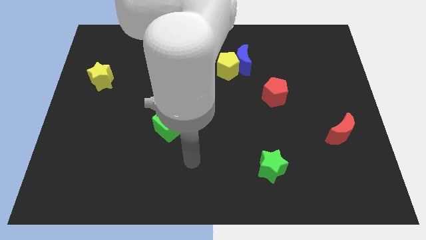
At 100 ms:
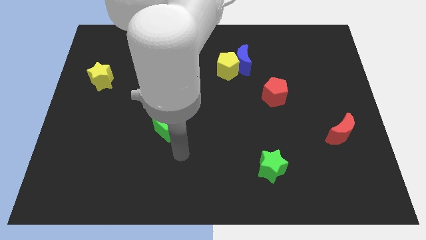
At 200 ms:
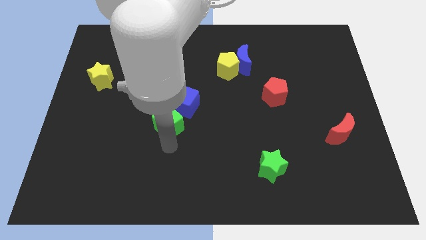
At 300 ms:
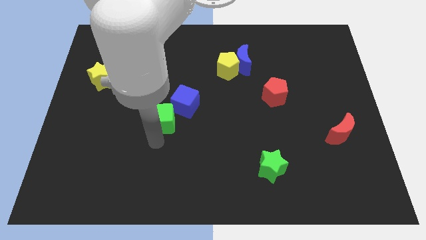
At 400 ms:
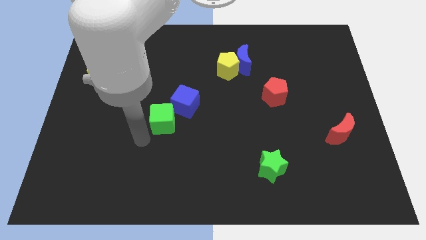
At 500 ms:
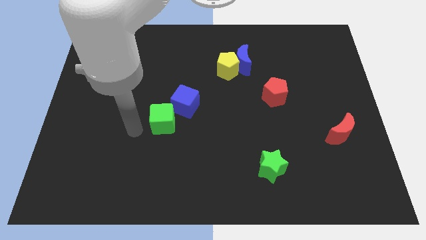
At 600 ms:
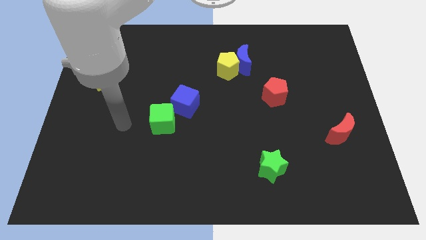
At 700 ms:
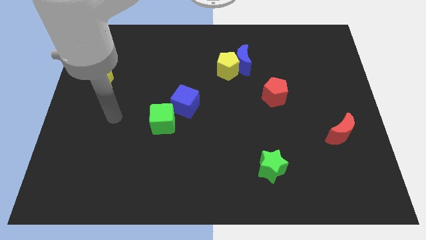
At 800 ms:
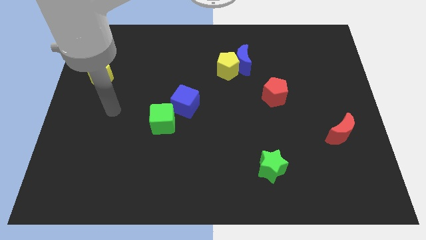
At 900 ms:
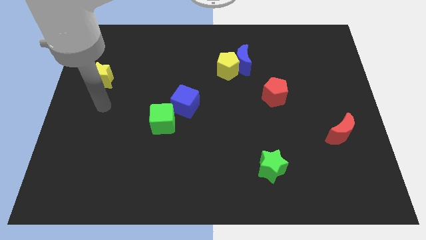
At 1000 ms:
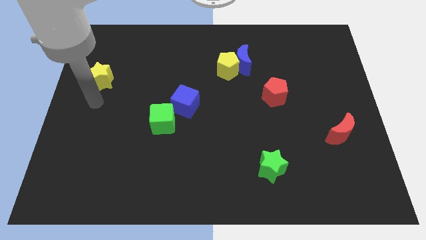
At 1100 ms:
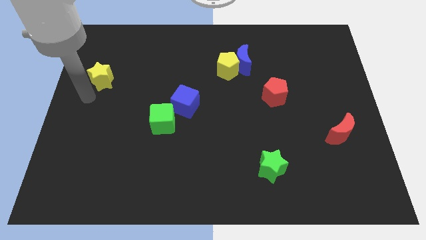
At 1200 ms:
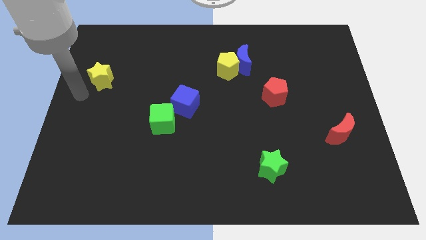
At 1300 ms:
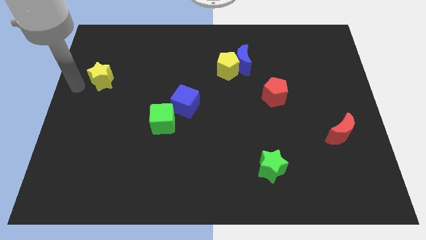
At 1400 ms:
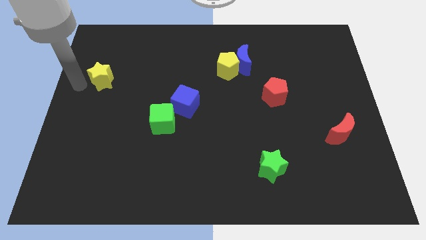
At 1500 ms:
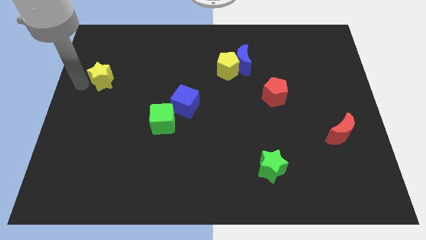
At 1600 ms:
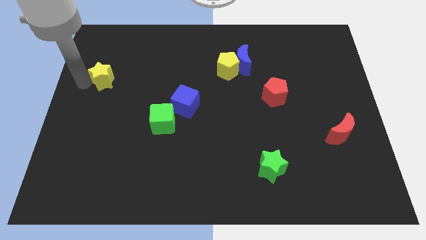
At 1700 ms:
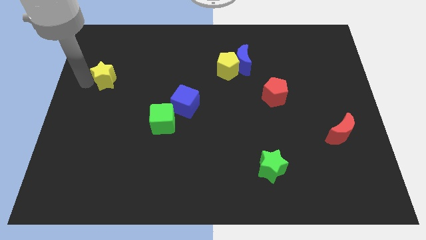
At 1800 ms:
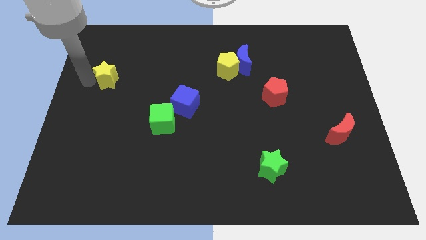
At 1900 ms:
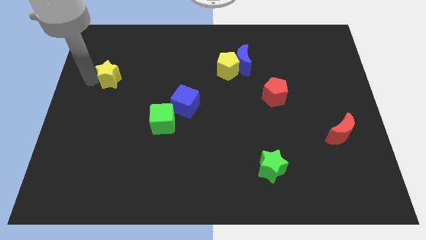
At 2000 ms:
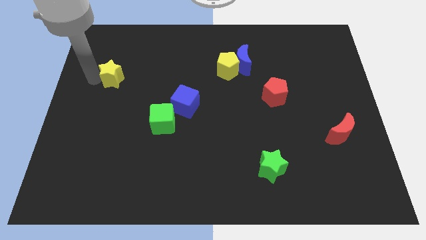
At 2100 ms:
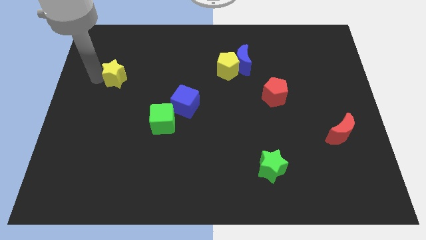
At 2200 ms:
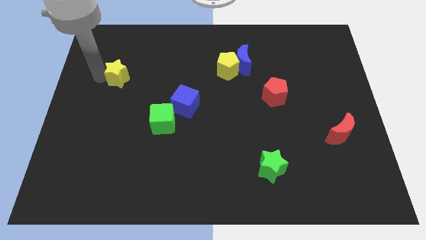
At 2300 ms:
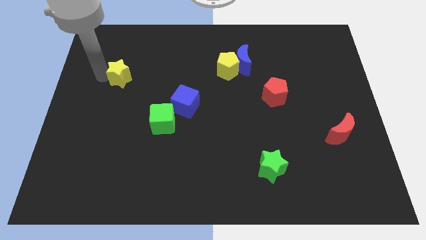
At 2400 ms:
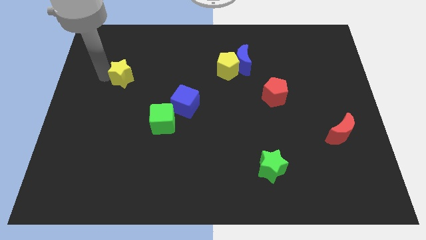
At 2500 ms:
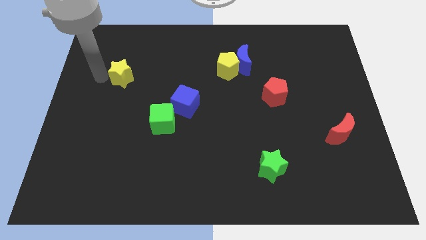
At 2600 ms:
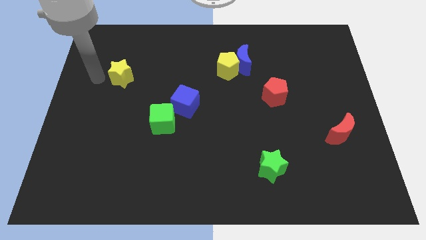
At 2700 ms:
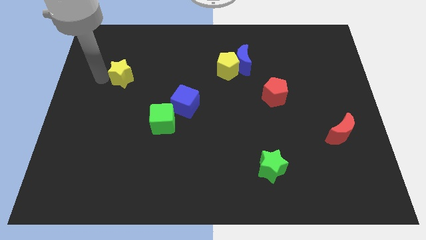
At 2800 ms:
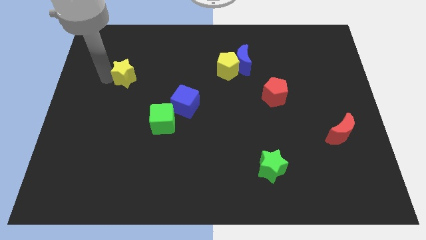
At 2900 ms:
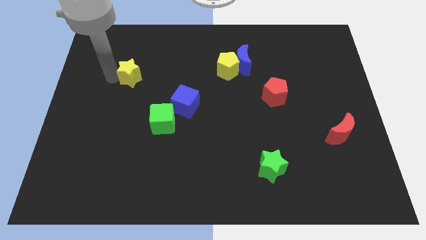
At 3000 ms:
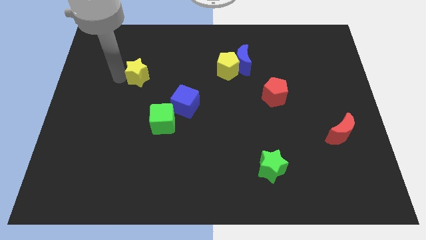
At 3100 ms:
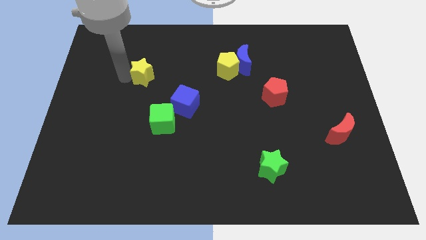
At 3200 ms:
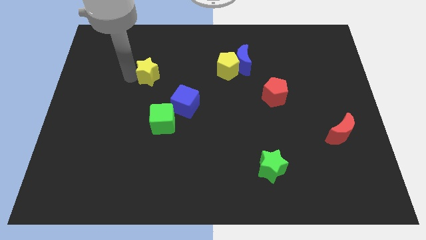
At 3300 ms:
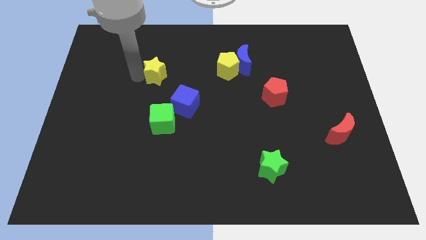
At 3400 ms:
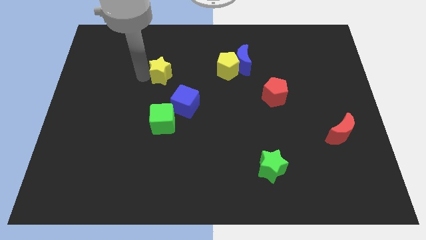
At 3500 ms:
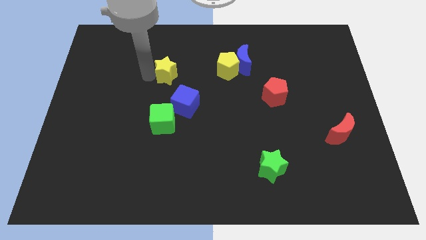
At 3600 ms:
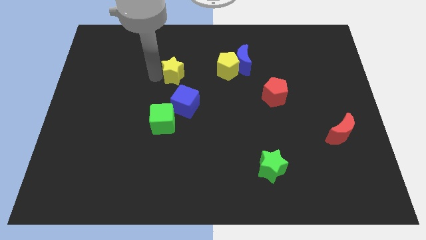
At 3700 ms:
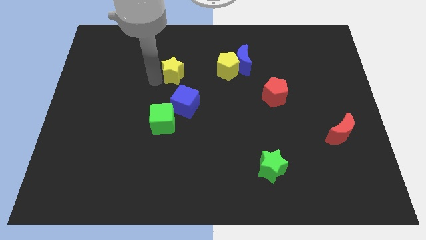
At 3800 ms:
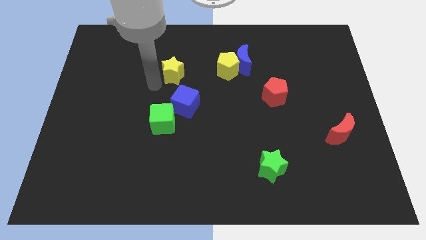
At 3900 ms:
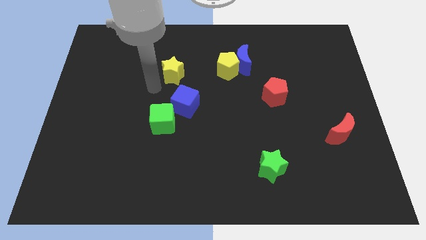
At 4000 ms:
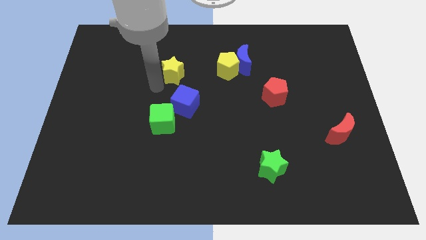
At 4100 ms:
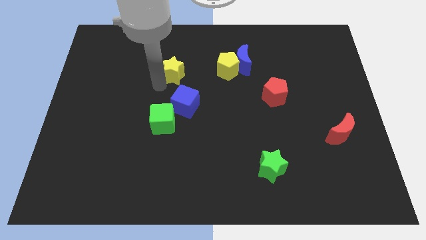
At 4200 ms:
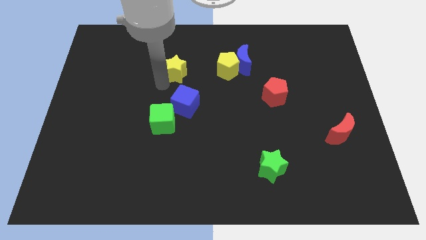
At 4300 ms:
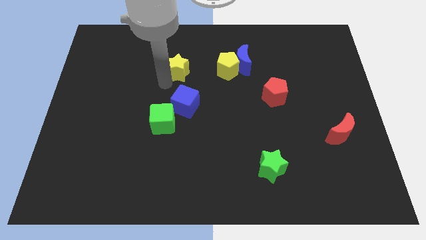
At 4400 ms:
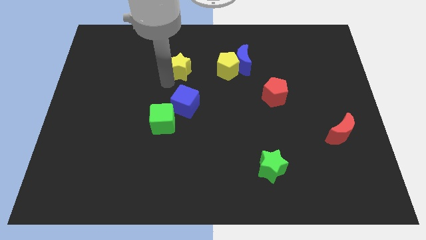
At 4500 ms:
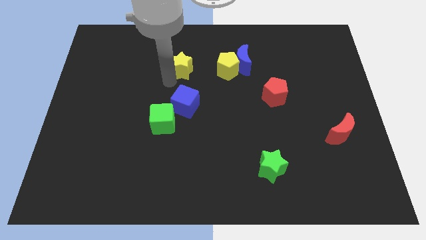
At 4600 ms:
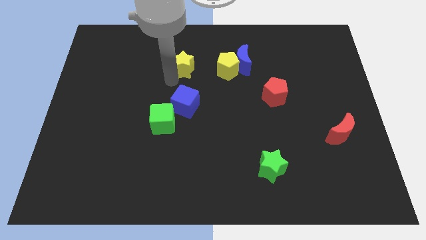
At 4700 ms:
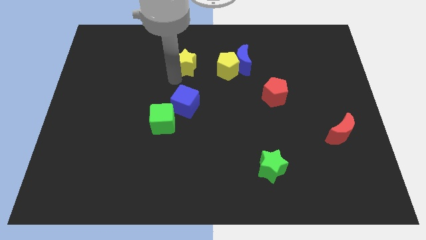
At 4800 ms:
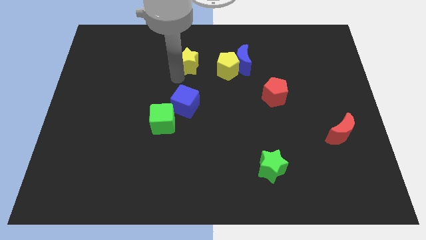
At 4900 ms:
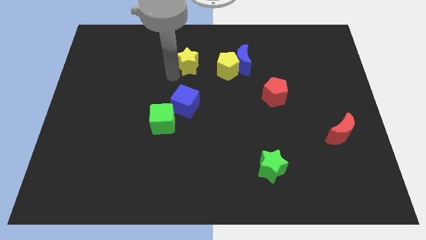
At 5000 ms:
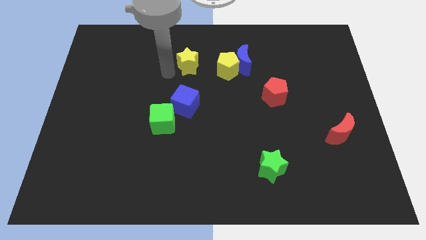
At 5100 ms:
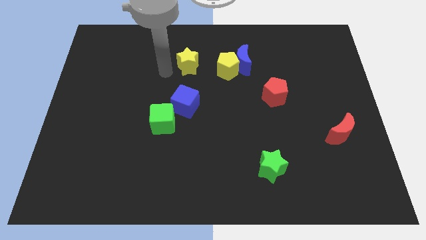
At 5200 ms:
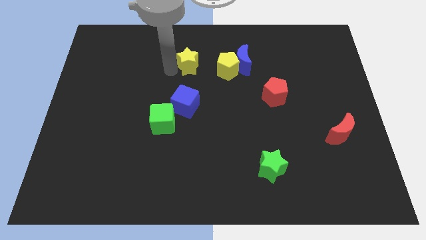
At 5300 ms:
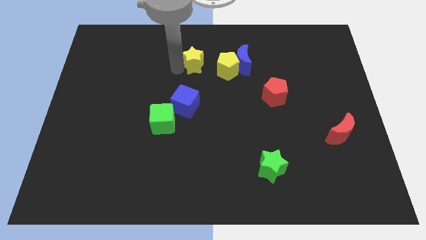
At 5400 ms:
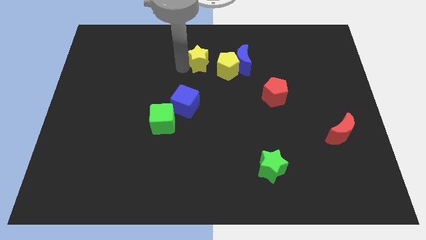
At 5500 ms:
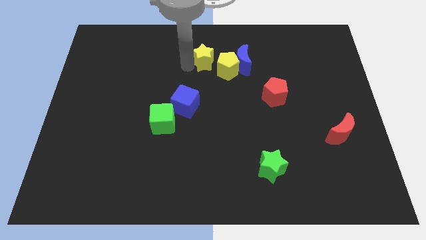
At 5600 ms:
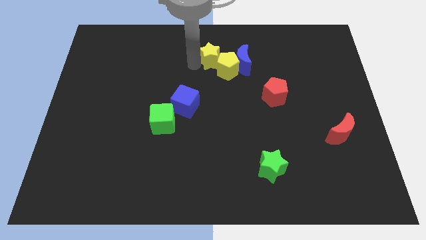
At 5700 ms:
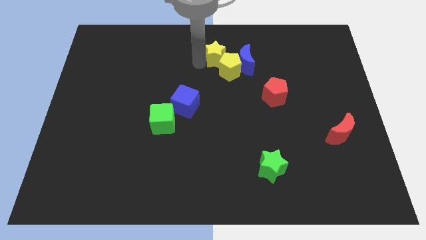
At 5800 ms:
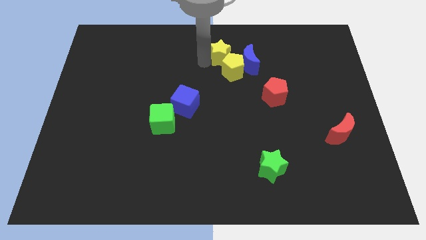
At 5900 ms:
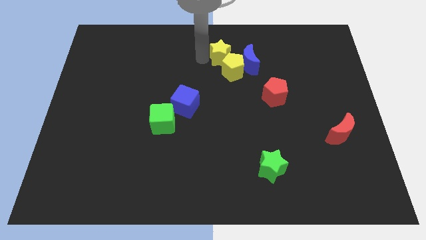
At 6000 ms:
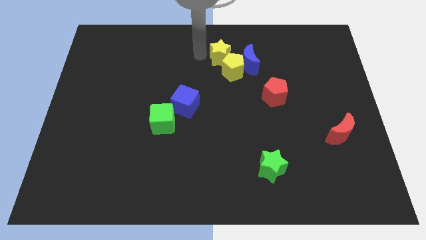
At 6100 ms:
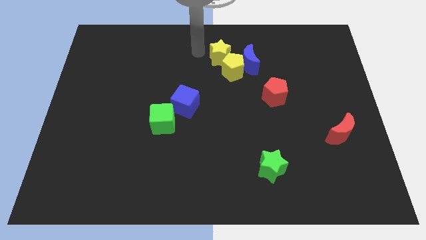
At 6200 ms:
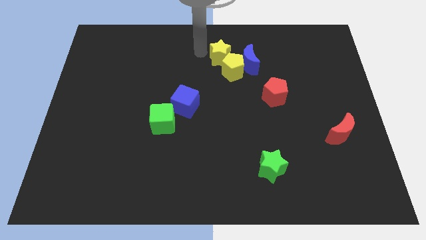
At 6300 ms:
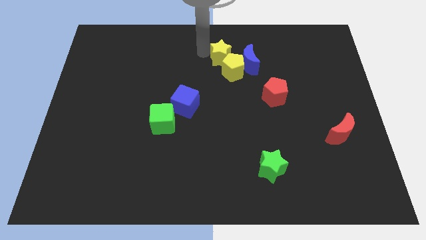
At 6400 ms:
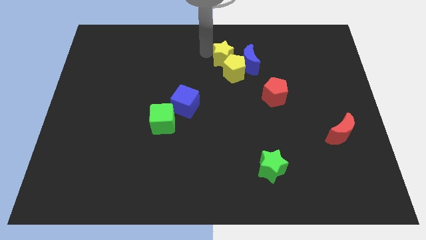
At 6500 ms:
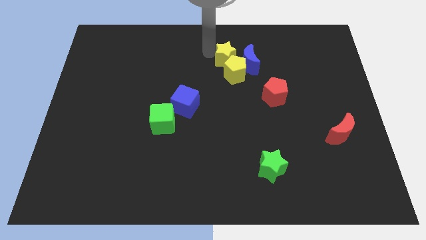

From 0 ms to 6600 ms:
put the yellow star close to the blue moon
